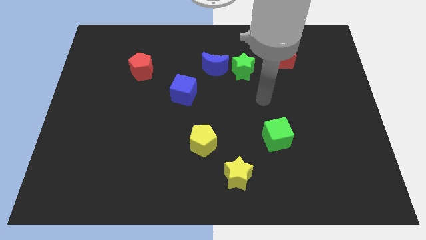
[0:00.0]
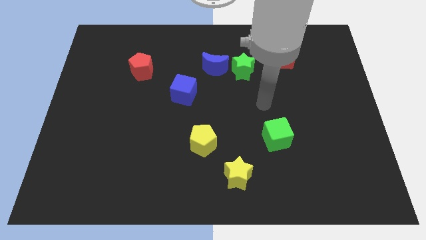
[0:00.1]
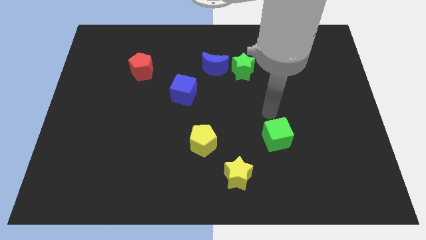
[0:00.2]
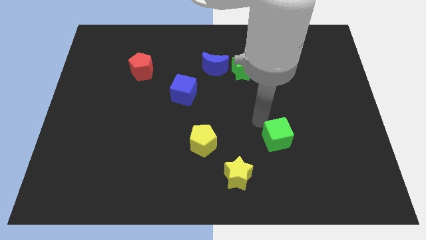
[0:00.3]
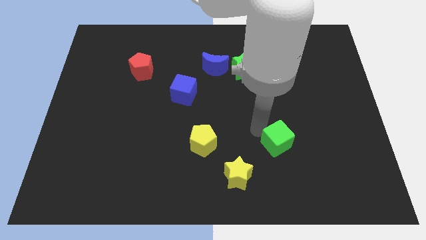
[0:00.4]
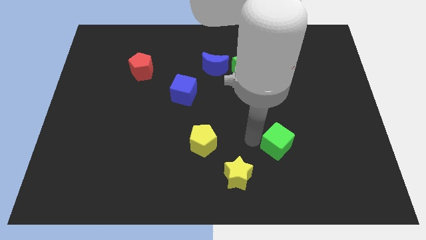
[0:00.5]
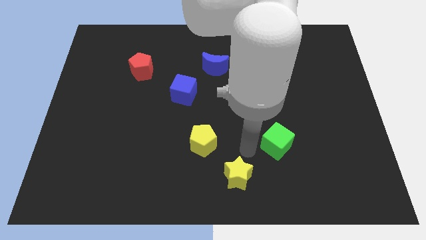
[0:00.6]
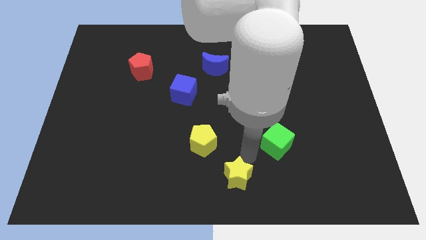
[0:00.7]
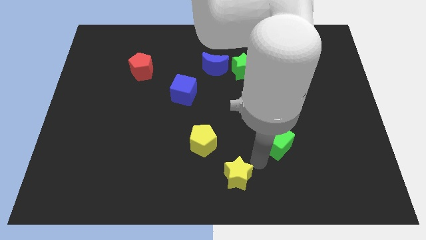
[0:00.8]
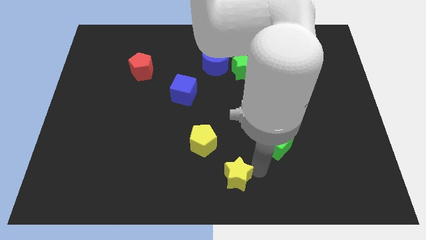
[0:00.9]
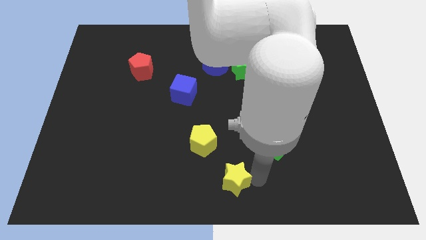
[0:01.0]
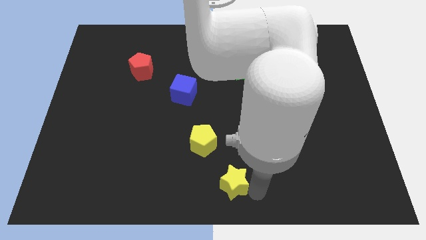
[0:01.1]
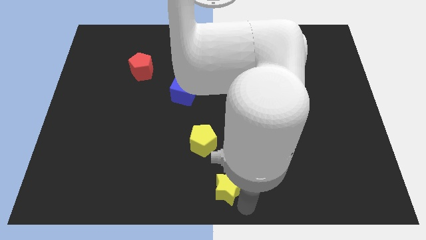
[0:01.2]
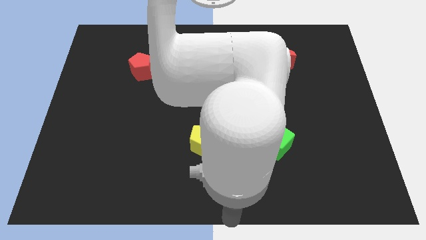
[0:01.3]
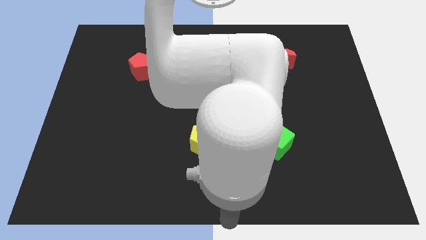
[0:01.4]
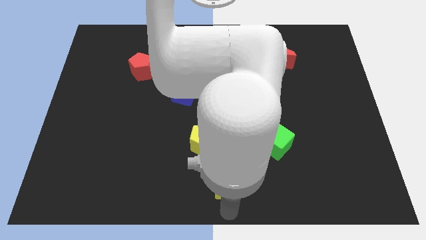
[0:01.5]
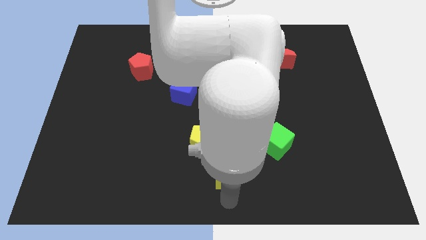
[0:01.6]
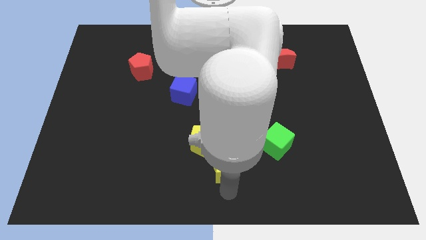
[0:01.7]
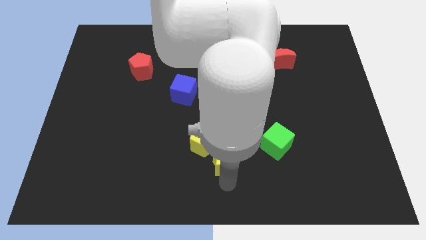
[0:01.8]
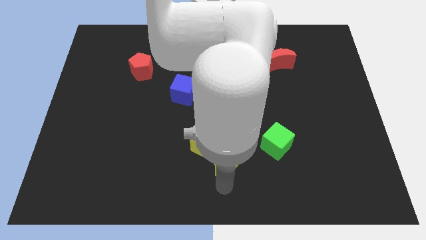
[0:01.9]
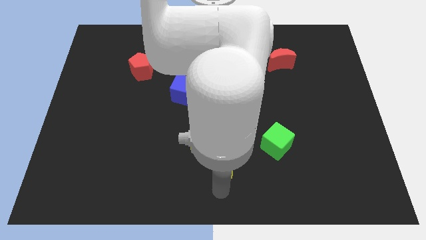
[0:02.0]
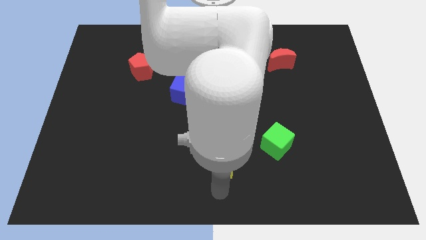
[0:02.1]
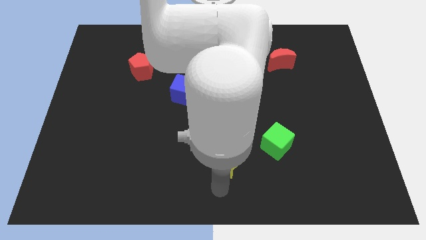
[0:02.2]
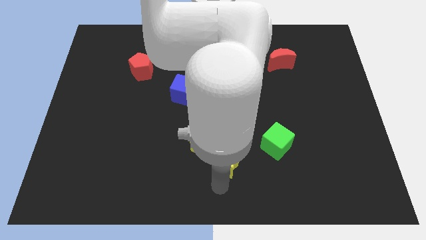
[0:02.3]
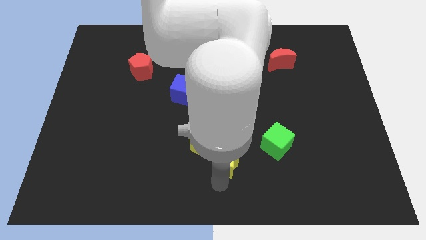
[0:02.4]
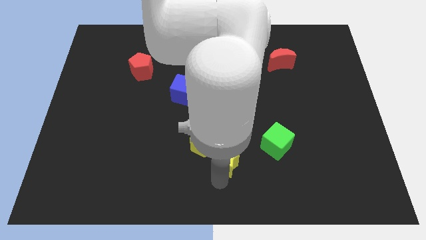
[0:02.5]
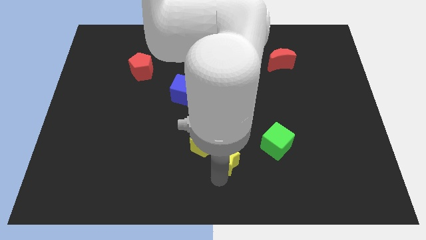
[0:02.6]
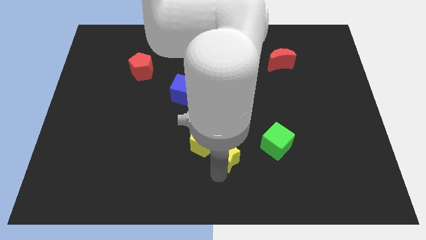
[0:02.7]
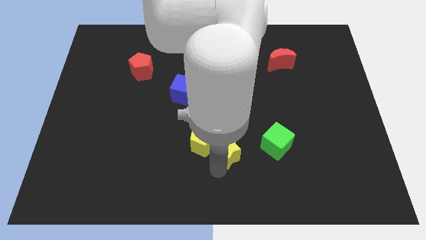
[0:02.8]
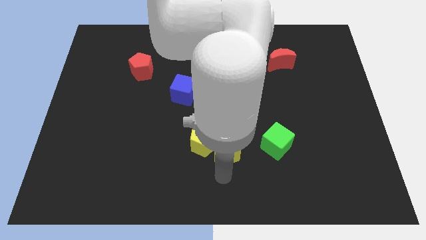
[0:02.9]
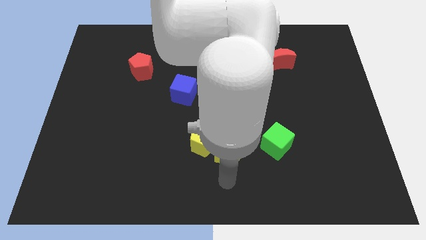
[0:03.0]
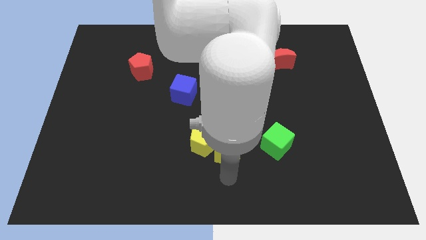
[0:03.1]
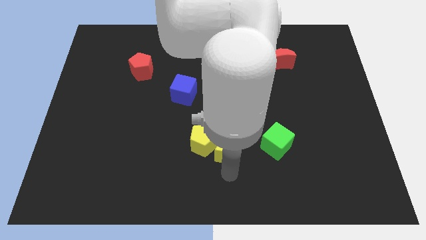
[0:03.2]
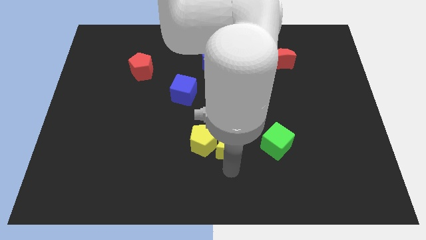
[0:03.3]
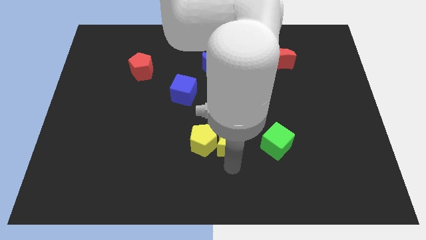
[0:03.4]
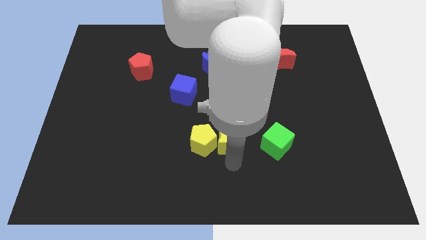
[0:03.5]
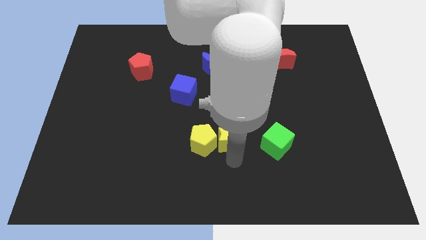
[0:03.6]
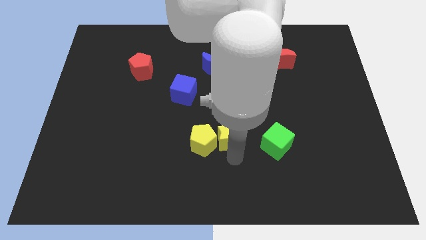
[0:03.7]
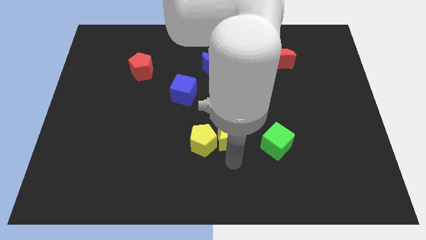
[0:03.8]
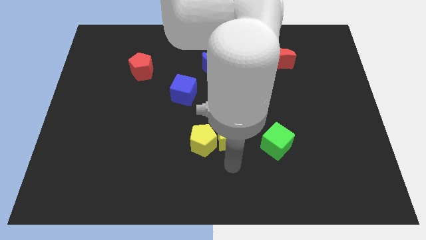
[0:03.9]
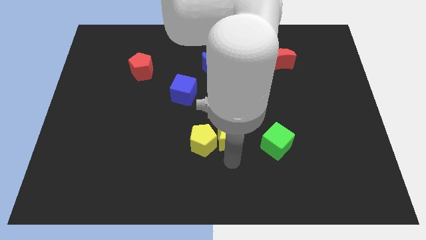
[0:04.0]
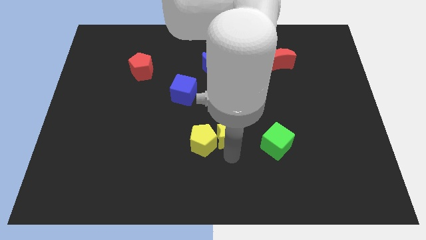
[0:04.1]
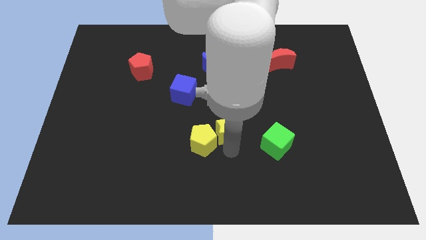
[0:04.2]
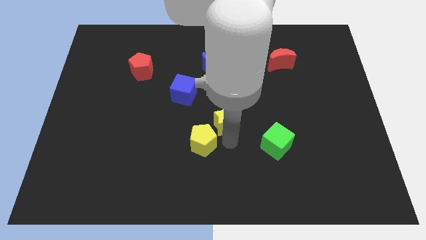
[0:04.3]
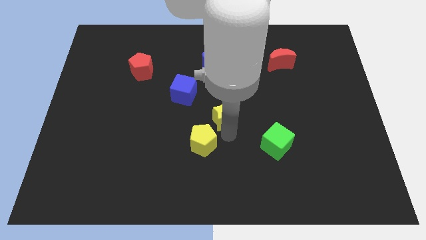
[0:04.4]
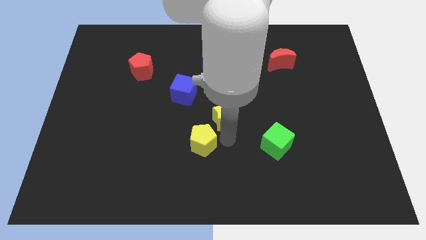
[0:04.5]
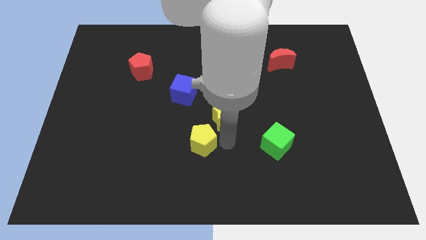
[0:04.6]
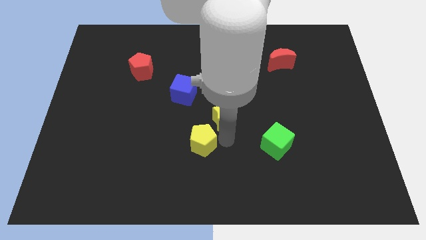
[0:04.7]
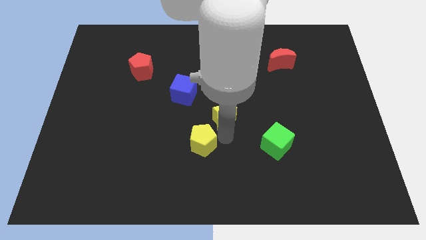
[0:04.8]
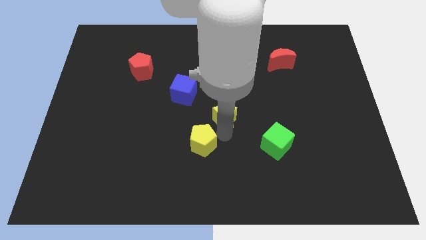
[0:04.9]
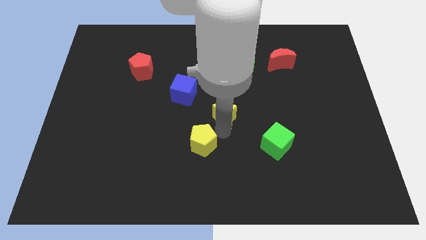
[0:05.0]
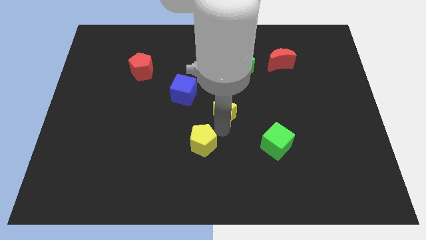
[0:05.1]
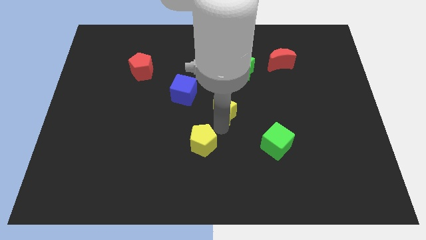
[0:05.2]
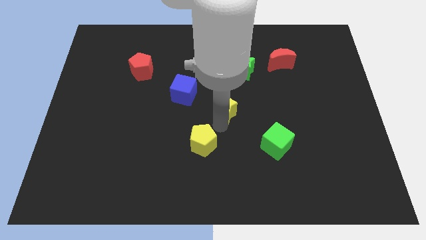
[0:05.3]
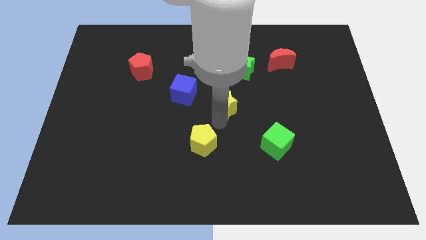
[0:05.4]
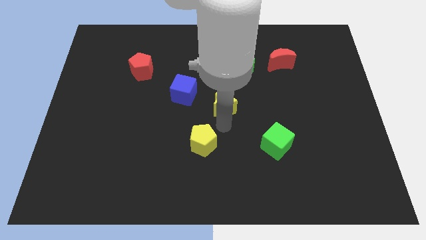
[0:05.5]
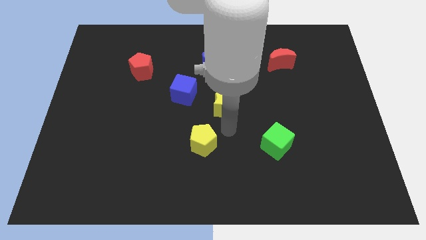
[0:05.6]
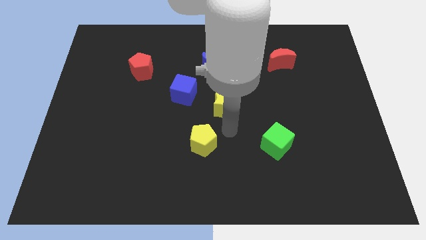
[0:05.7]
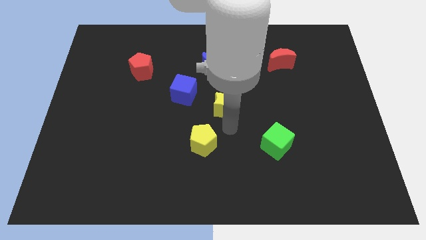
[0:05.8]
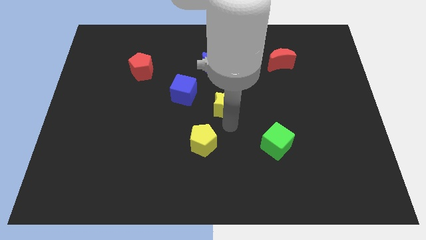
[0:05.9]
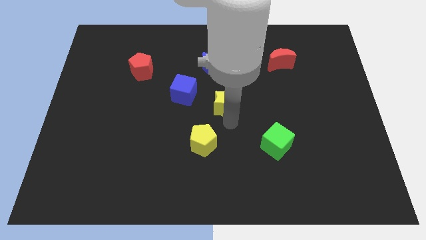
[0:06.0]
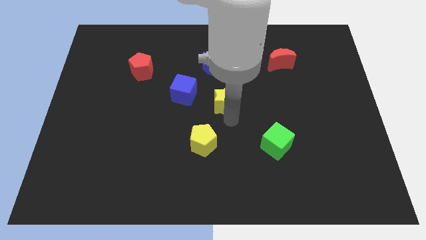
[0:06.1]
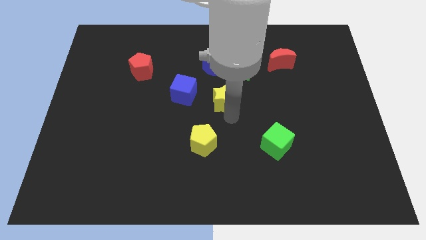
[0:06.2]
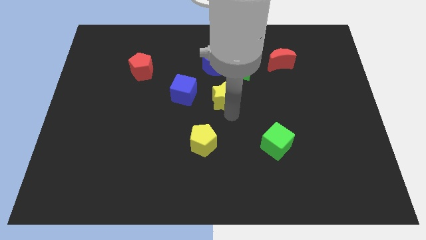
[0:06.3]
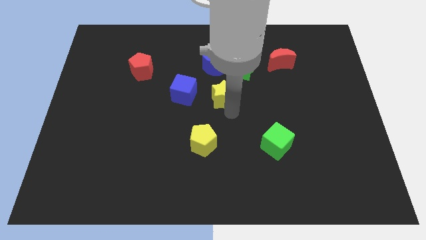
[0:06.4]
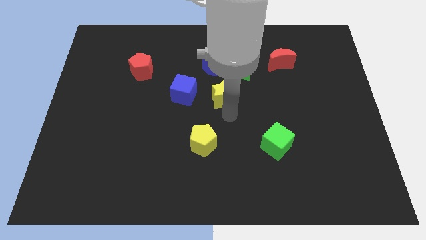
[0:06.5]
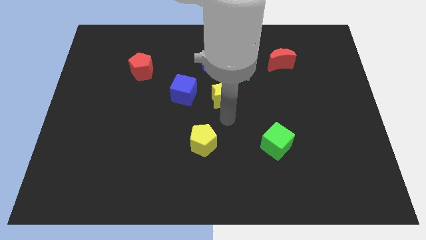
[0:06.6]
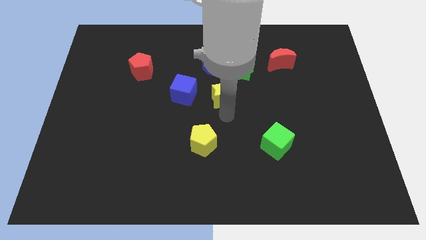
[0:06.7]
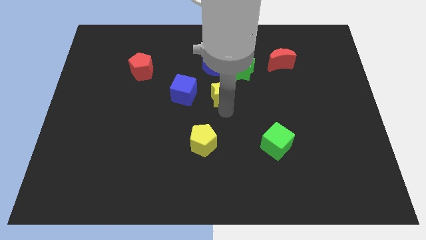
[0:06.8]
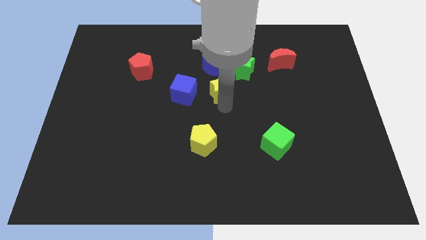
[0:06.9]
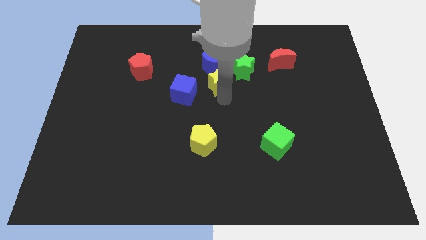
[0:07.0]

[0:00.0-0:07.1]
slide the yellow star next to the blue moon

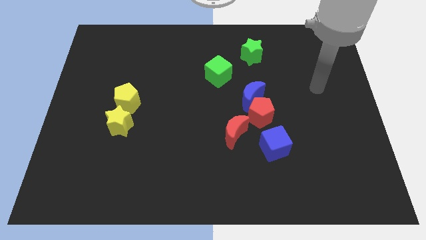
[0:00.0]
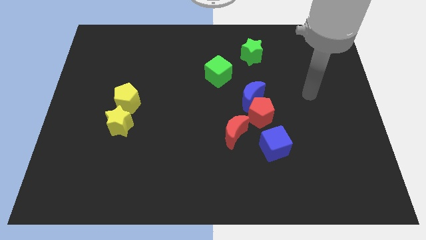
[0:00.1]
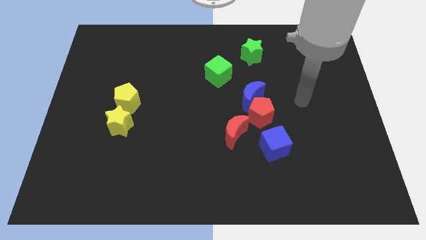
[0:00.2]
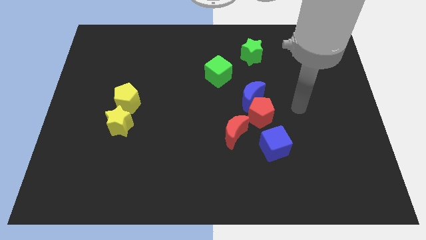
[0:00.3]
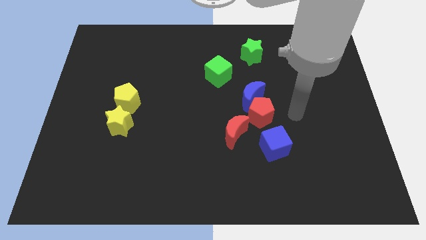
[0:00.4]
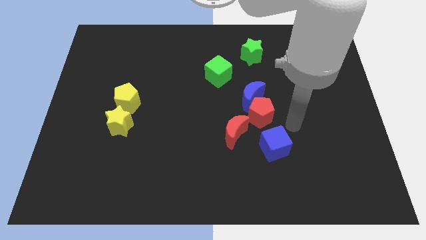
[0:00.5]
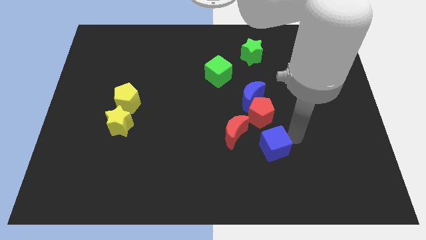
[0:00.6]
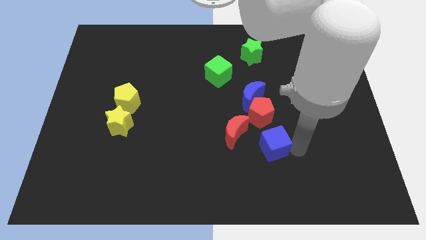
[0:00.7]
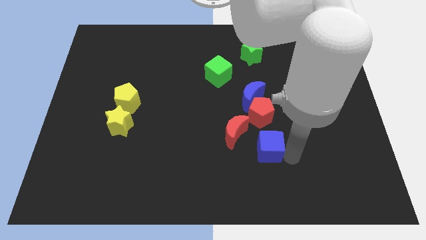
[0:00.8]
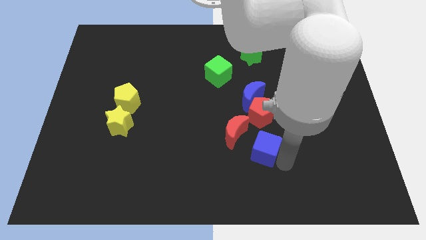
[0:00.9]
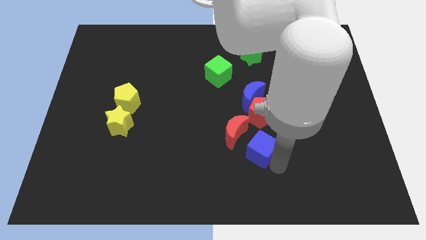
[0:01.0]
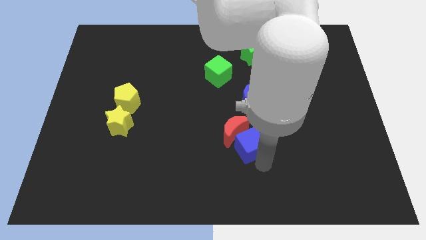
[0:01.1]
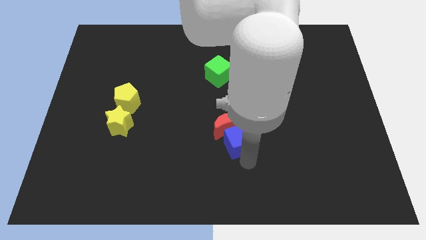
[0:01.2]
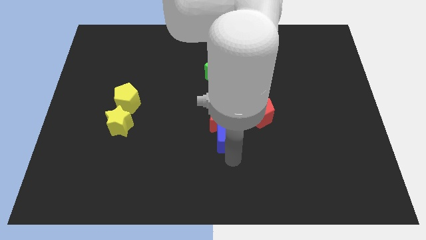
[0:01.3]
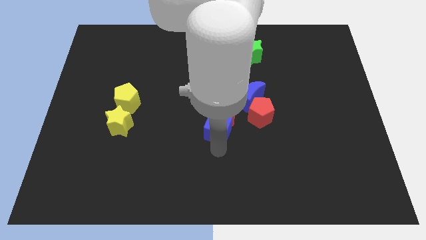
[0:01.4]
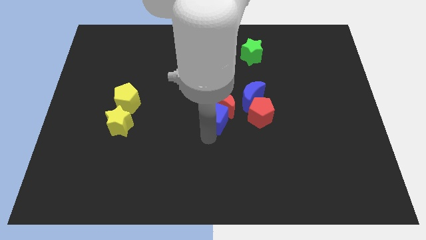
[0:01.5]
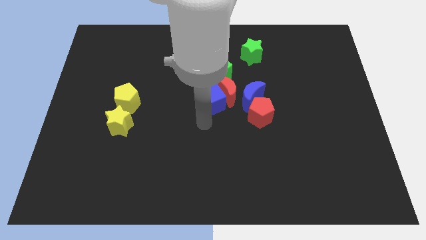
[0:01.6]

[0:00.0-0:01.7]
push the red moon to the blue moon
